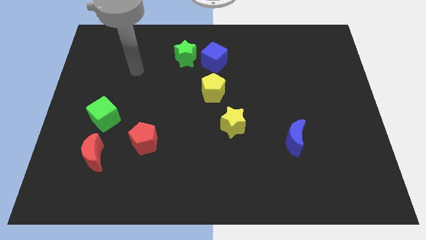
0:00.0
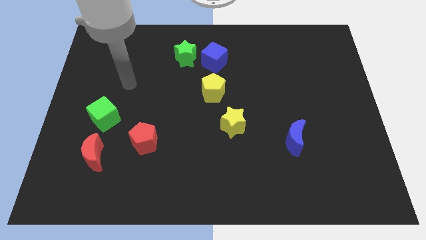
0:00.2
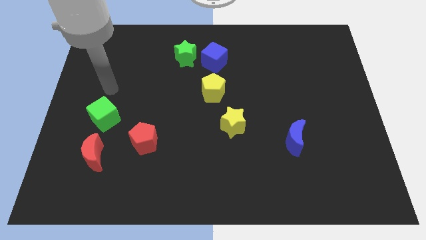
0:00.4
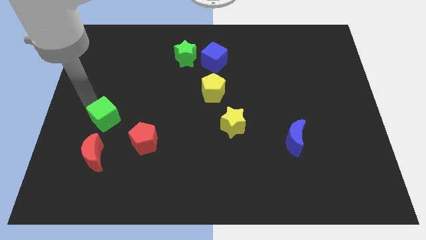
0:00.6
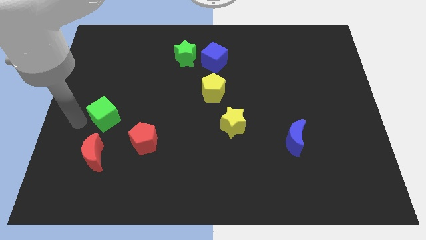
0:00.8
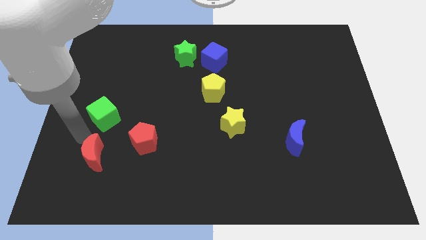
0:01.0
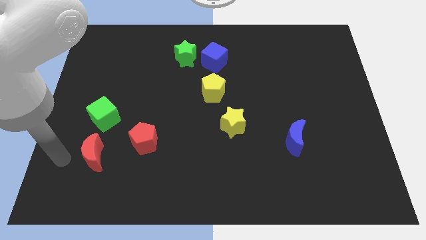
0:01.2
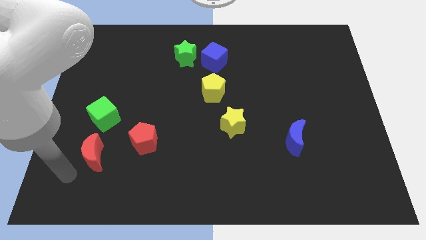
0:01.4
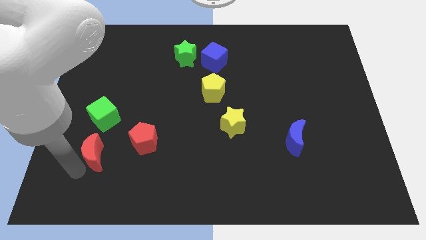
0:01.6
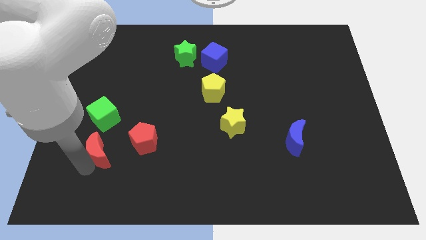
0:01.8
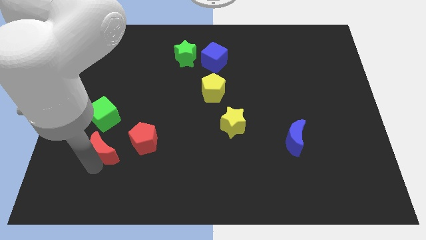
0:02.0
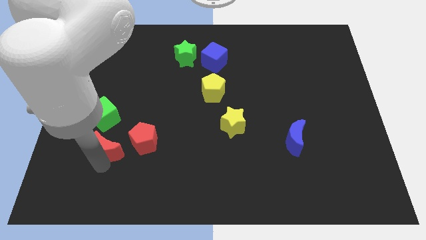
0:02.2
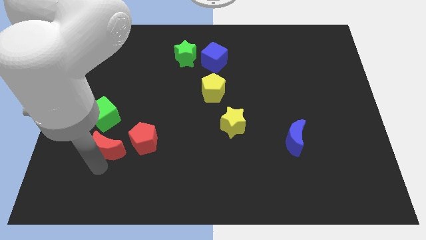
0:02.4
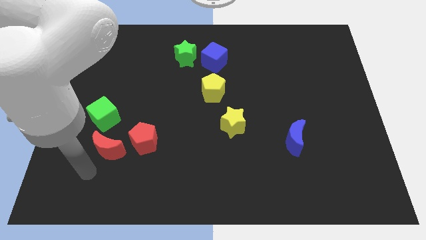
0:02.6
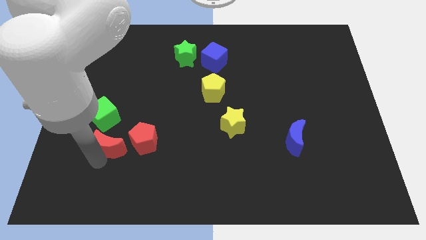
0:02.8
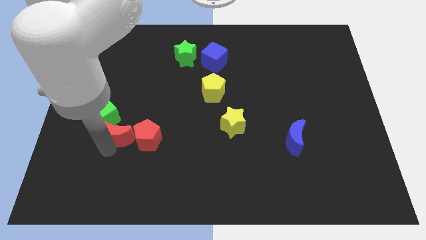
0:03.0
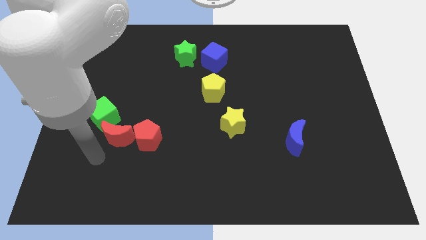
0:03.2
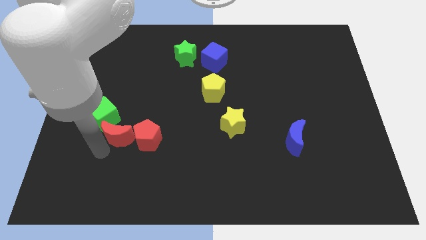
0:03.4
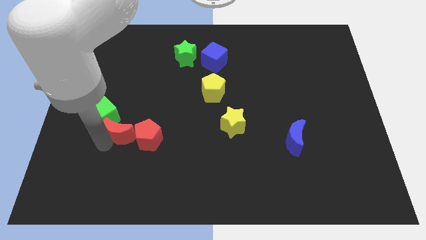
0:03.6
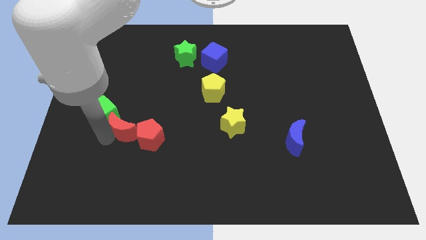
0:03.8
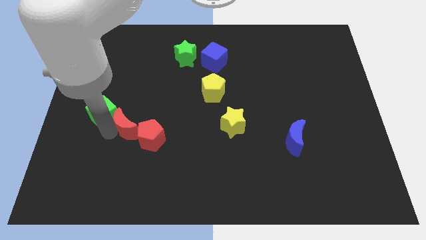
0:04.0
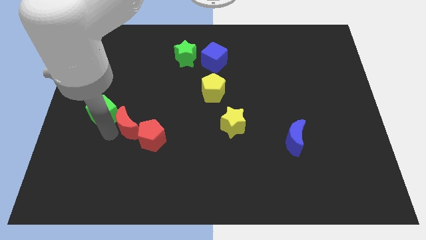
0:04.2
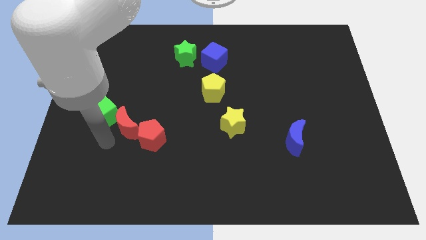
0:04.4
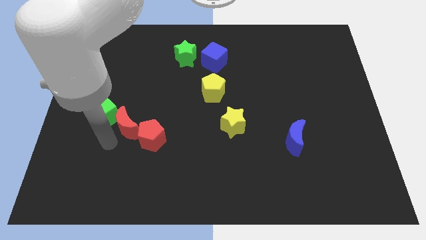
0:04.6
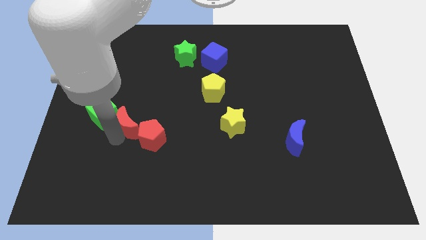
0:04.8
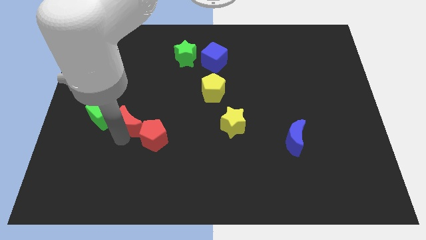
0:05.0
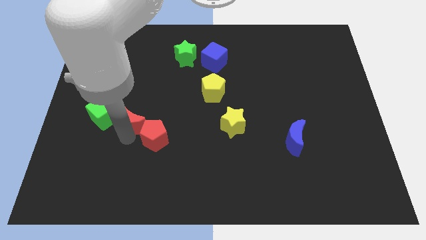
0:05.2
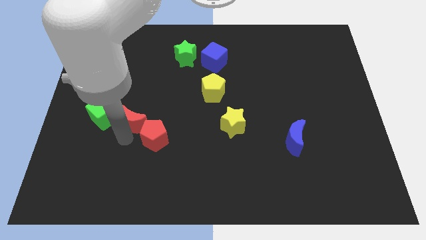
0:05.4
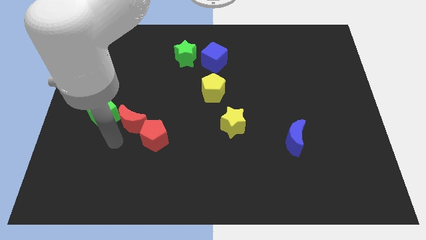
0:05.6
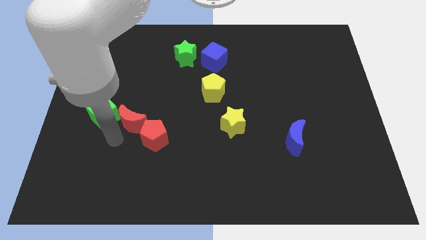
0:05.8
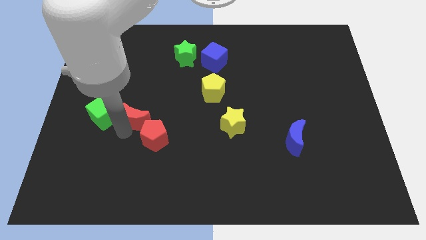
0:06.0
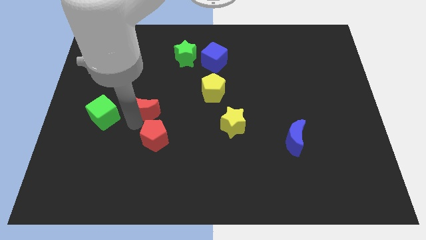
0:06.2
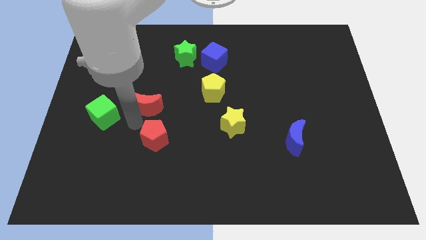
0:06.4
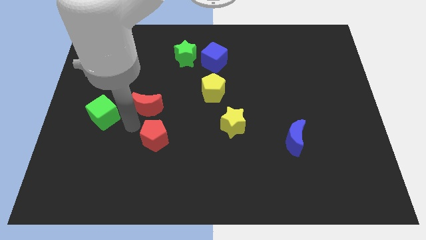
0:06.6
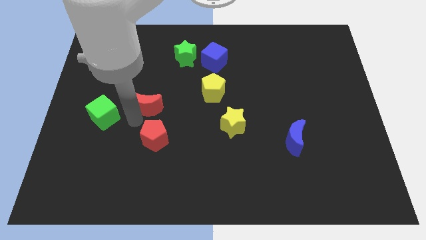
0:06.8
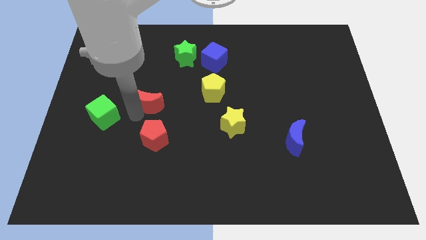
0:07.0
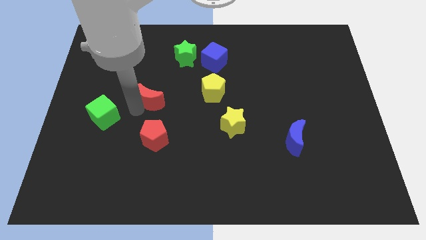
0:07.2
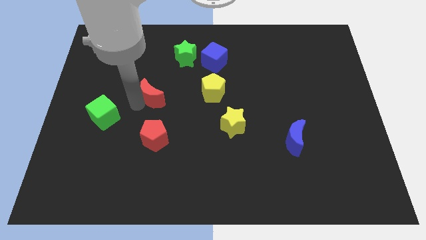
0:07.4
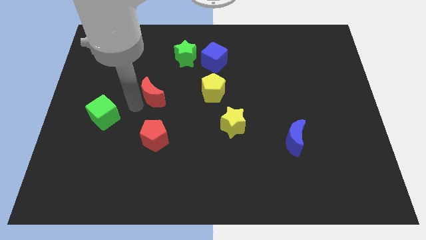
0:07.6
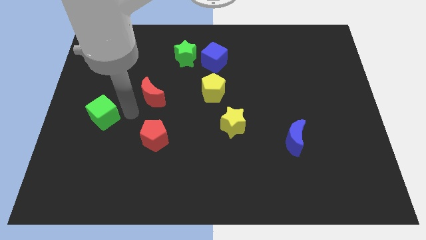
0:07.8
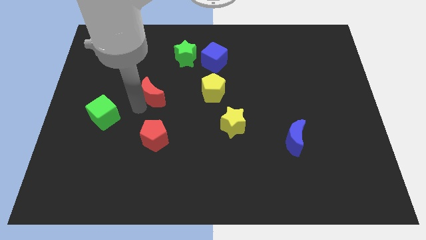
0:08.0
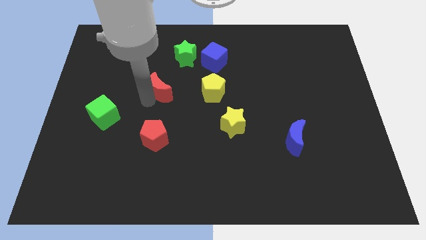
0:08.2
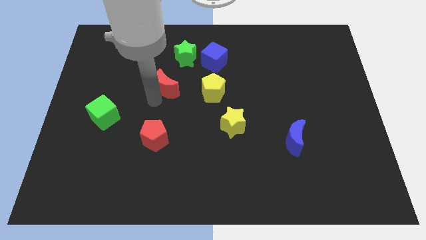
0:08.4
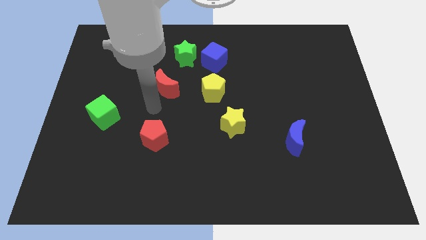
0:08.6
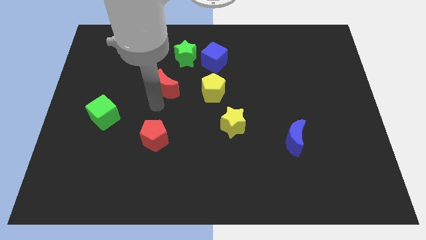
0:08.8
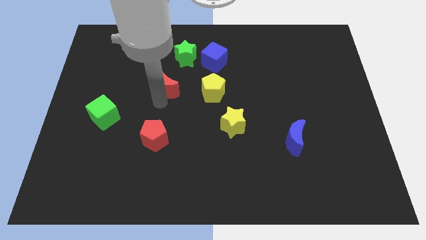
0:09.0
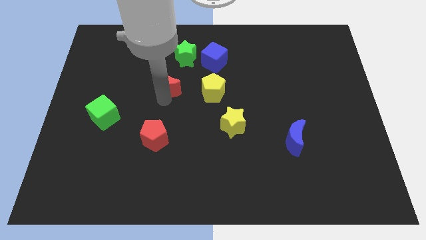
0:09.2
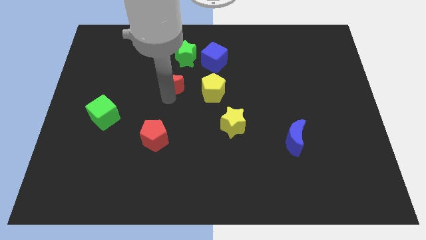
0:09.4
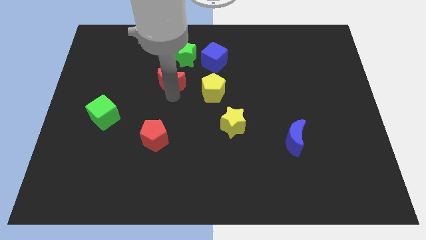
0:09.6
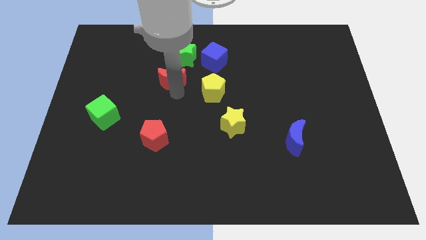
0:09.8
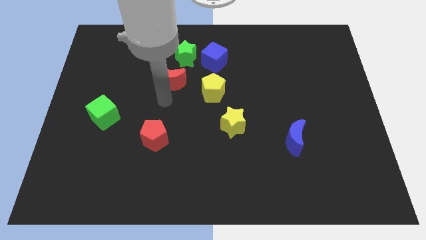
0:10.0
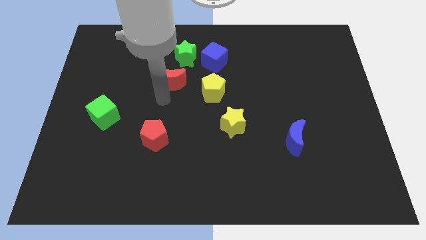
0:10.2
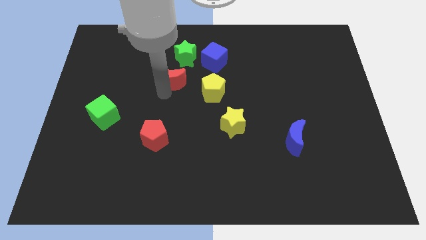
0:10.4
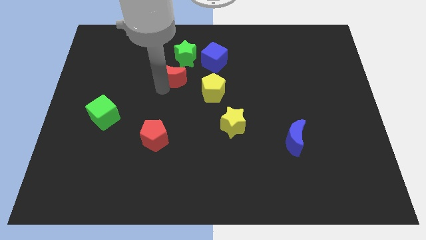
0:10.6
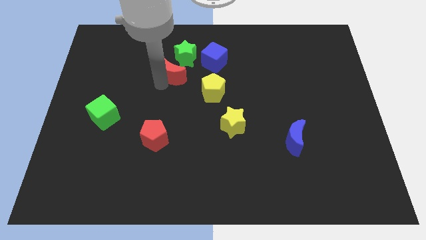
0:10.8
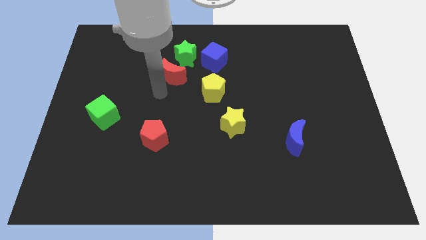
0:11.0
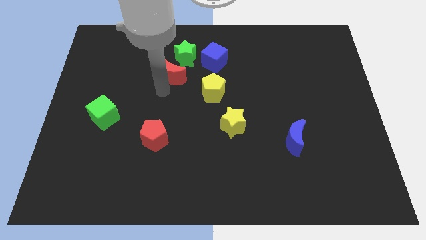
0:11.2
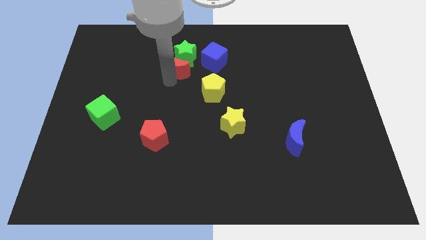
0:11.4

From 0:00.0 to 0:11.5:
put the red moon next to the green star

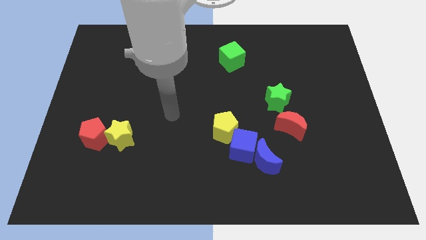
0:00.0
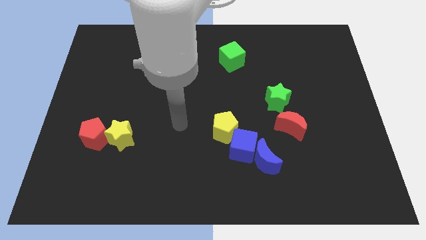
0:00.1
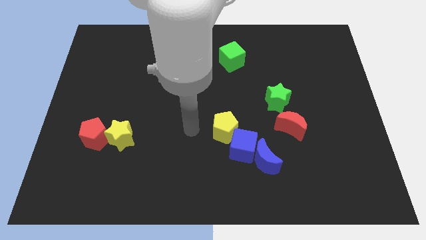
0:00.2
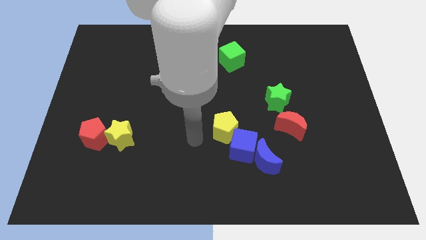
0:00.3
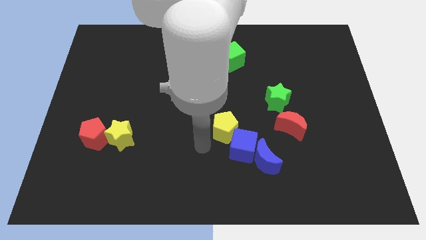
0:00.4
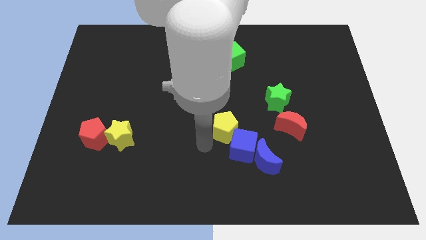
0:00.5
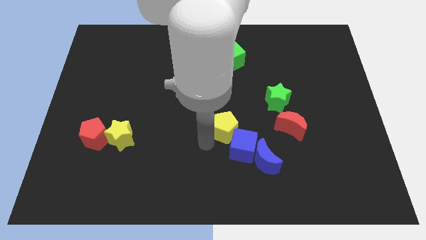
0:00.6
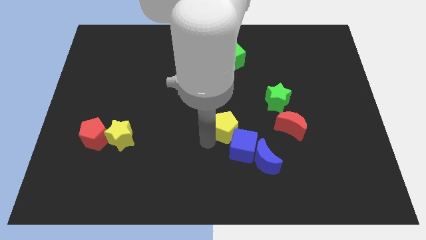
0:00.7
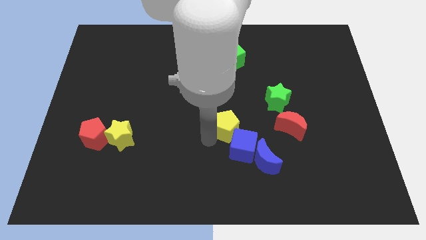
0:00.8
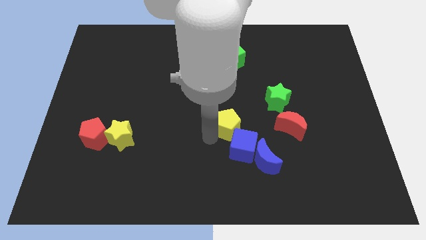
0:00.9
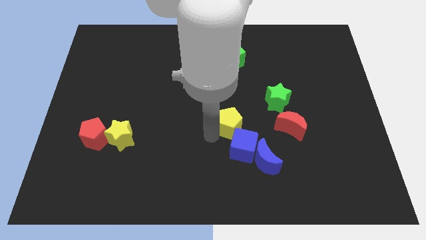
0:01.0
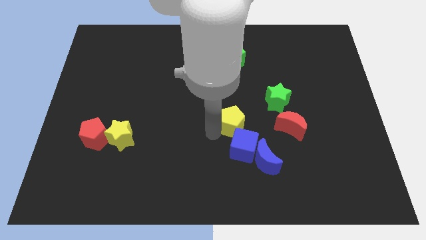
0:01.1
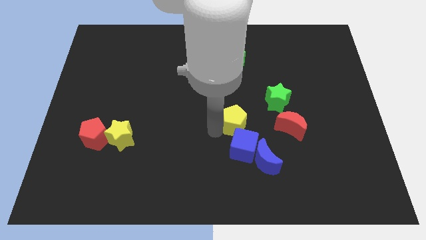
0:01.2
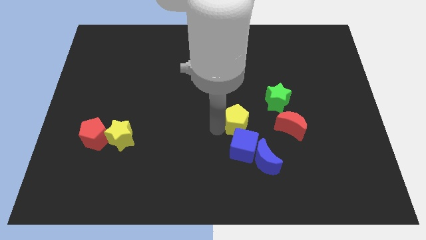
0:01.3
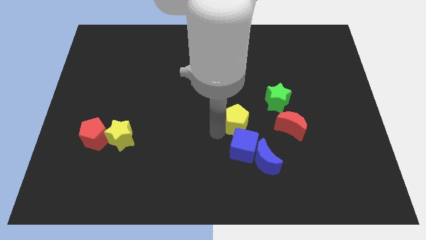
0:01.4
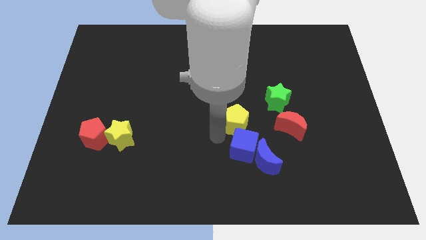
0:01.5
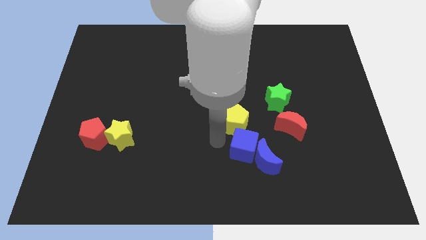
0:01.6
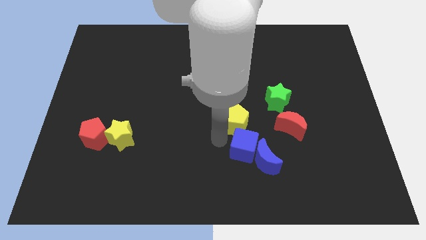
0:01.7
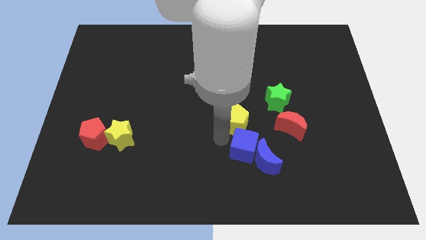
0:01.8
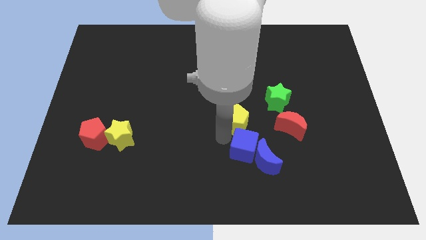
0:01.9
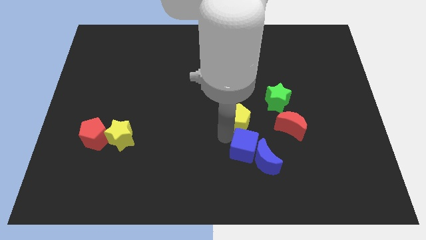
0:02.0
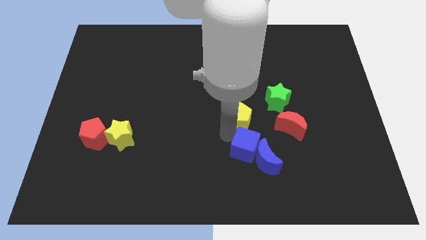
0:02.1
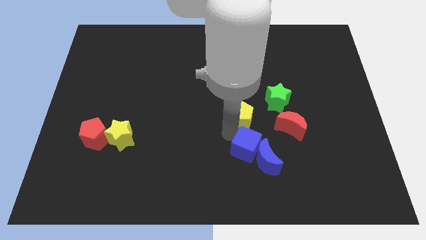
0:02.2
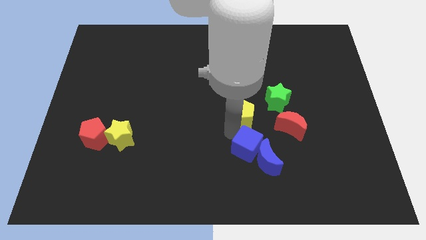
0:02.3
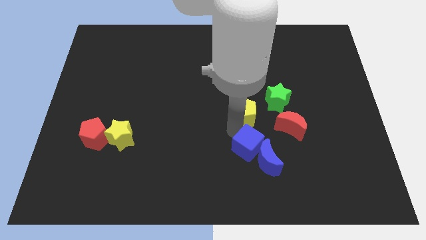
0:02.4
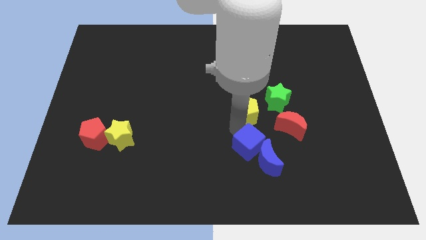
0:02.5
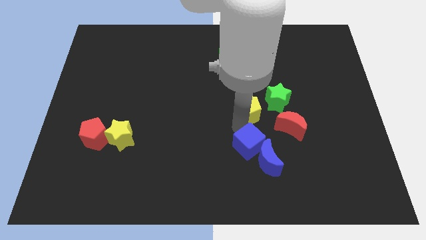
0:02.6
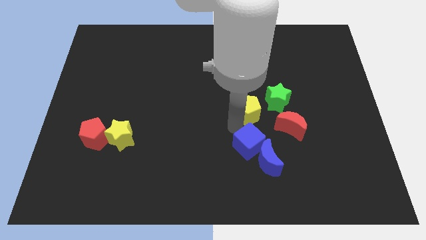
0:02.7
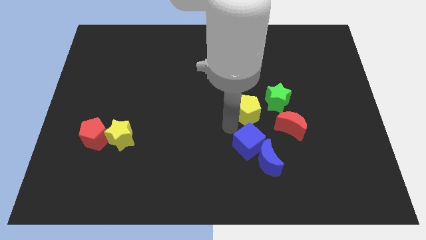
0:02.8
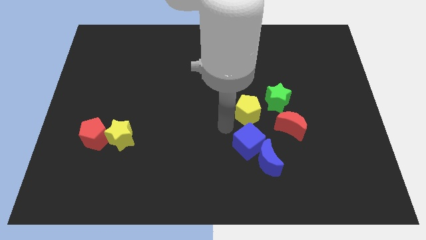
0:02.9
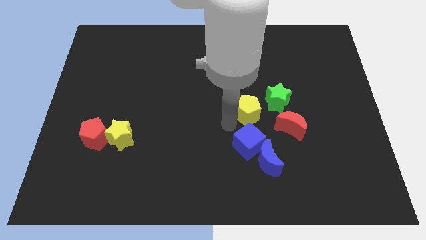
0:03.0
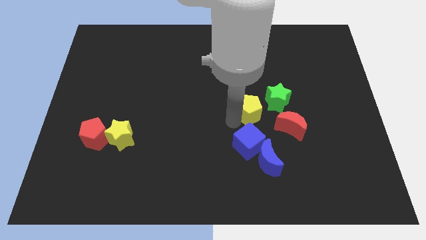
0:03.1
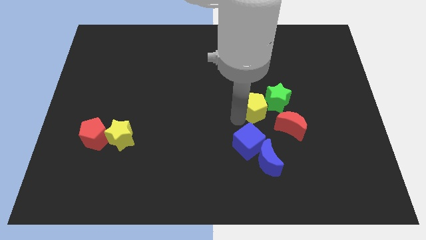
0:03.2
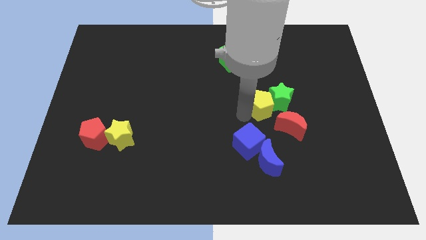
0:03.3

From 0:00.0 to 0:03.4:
slide the yellow pentagon towards the green star
